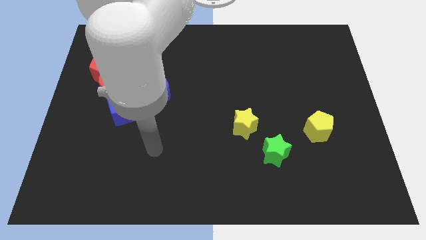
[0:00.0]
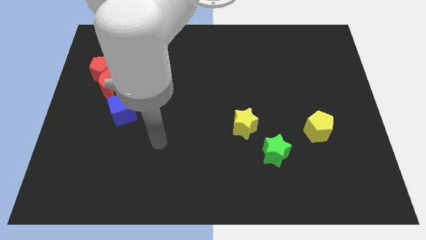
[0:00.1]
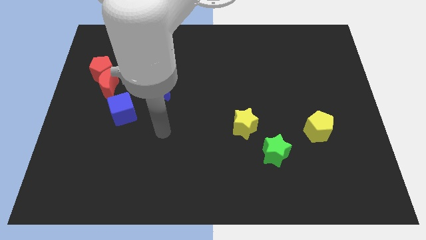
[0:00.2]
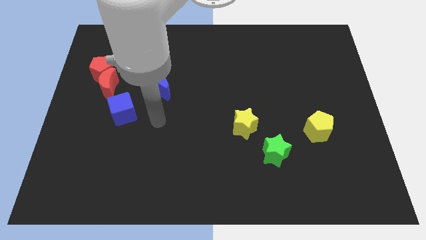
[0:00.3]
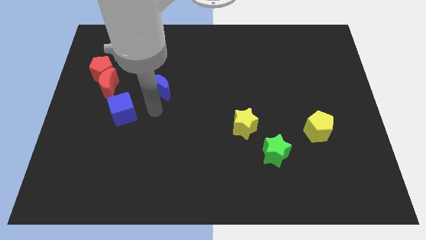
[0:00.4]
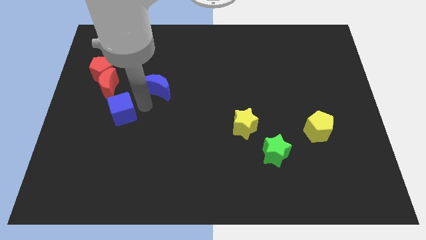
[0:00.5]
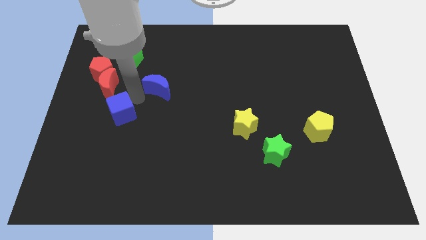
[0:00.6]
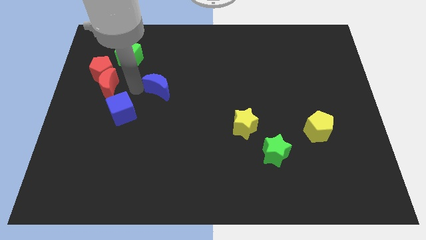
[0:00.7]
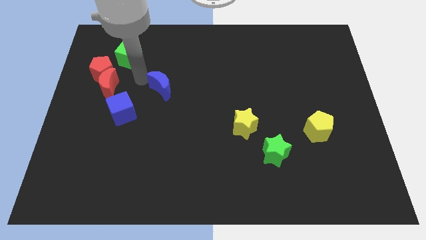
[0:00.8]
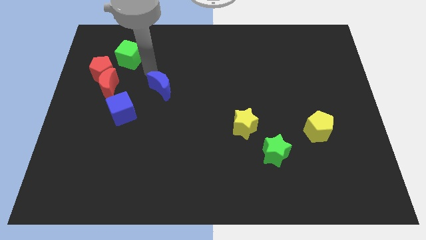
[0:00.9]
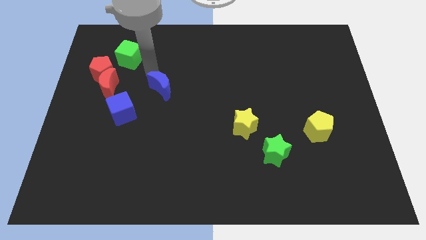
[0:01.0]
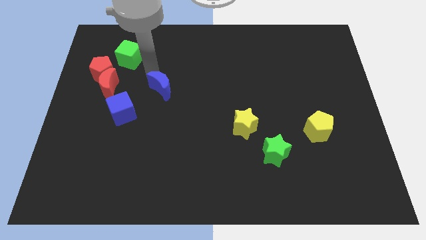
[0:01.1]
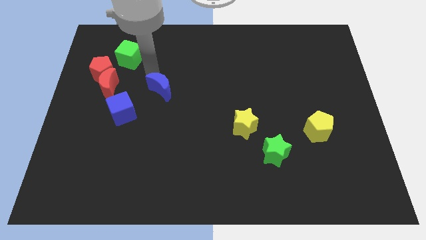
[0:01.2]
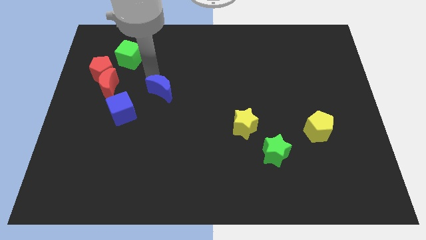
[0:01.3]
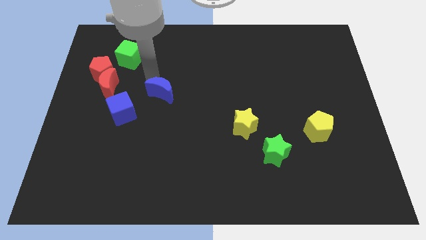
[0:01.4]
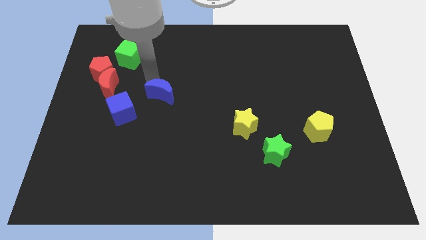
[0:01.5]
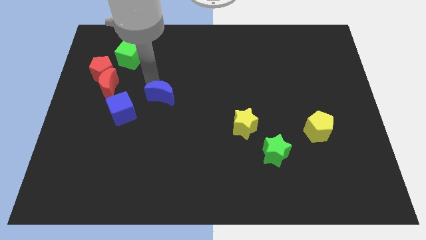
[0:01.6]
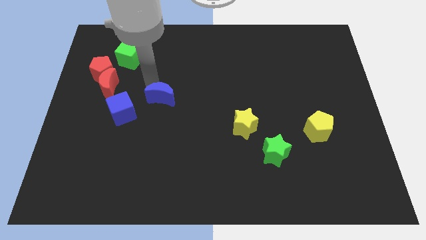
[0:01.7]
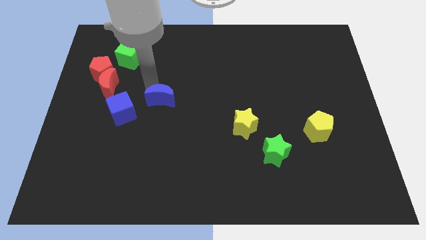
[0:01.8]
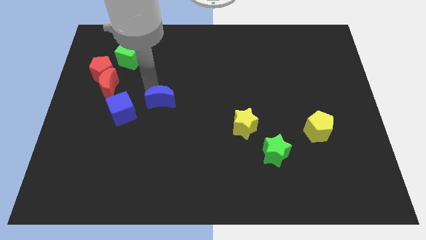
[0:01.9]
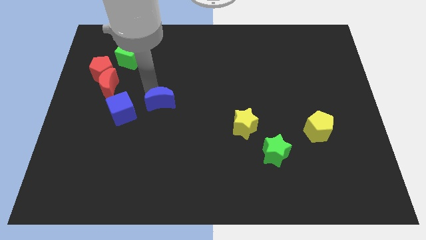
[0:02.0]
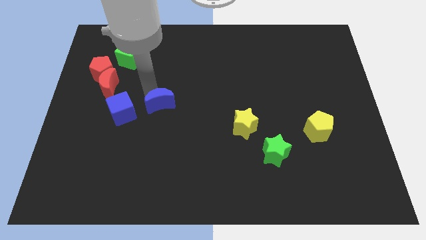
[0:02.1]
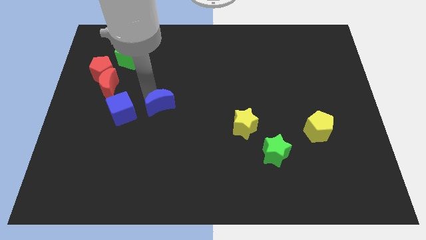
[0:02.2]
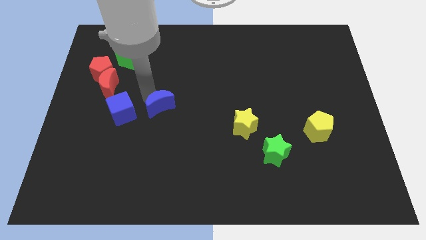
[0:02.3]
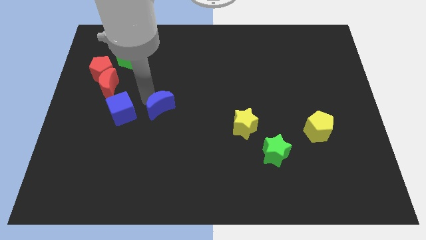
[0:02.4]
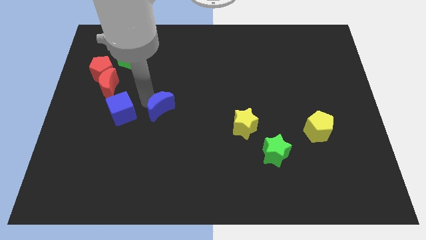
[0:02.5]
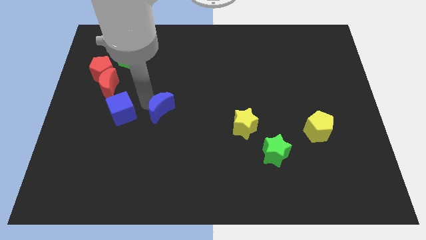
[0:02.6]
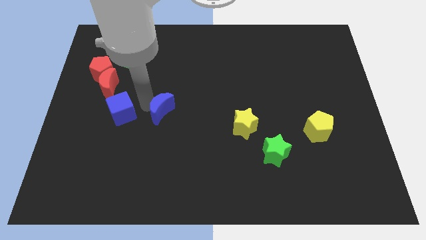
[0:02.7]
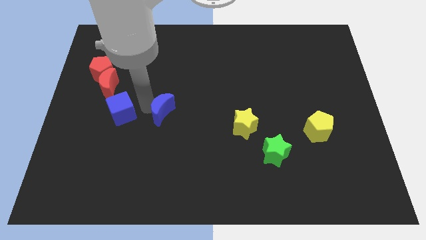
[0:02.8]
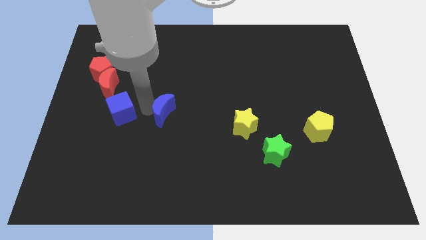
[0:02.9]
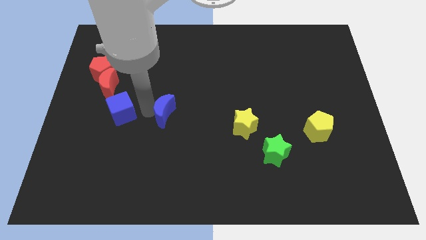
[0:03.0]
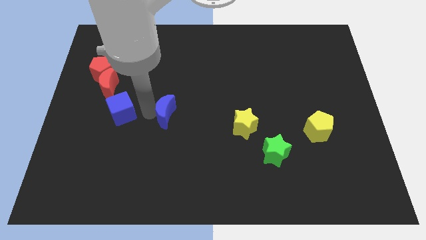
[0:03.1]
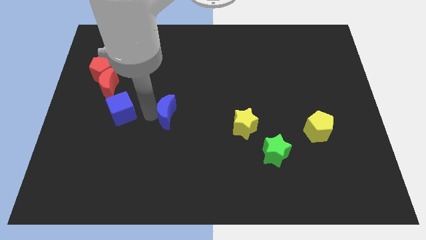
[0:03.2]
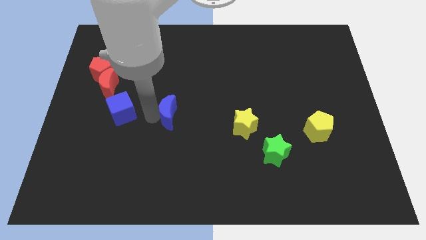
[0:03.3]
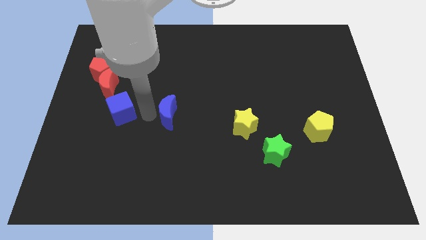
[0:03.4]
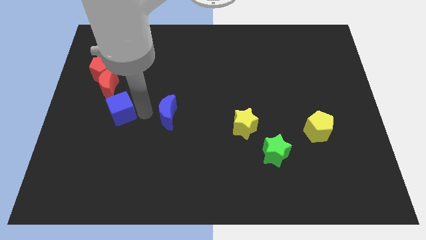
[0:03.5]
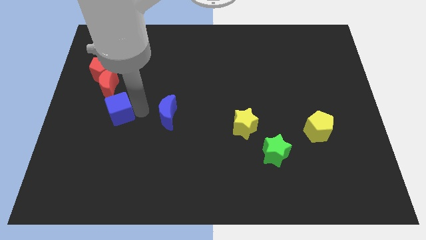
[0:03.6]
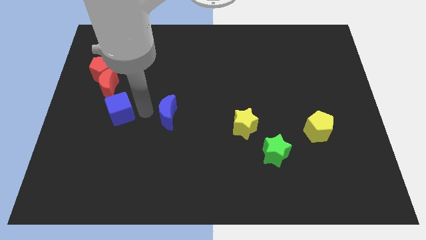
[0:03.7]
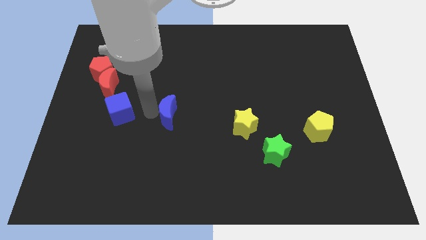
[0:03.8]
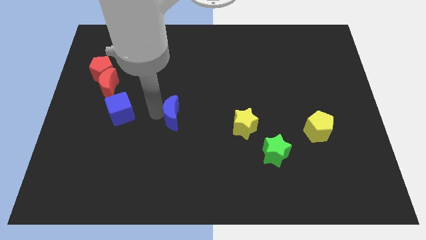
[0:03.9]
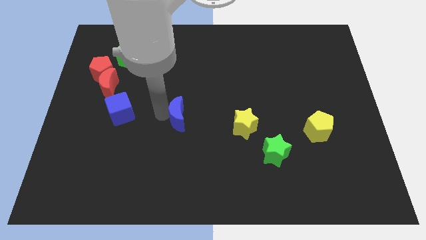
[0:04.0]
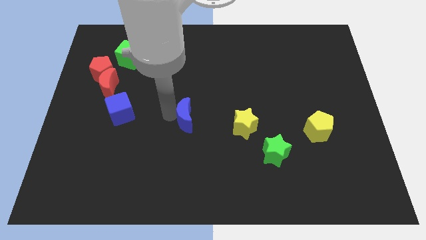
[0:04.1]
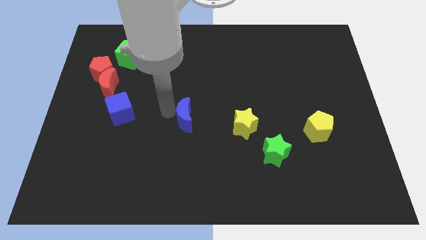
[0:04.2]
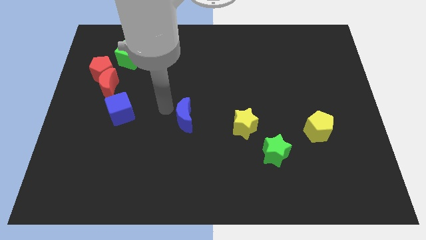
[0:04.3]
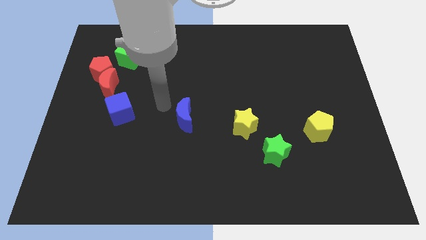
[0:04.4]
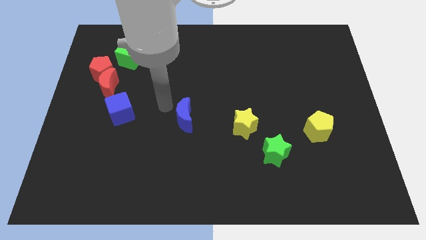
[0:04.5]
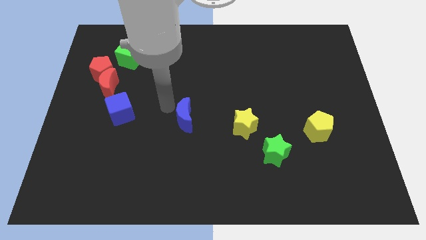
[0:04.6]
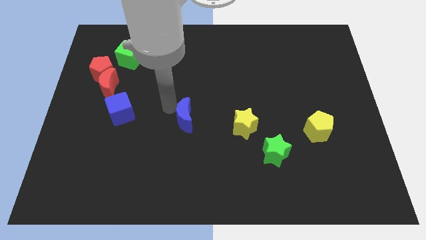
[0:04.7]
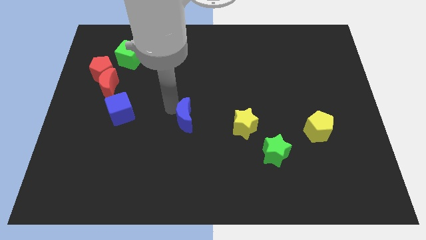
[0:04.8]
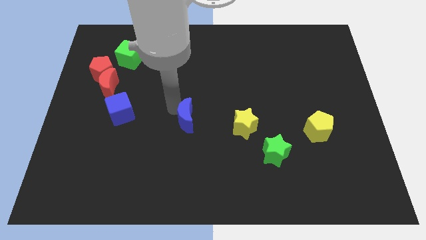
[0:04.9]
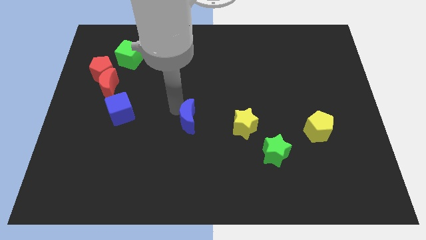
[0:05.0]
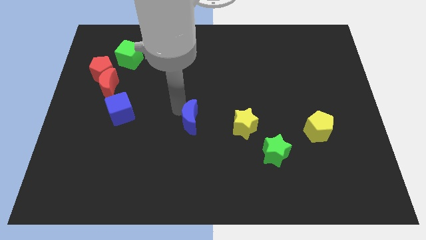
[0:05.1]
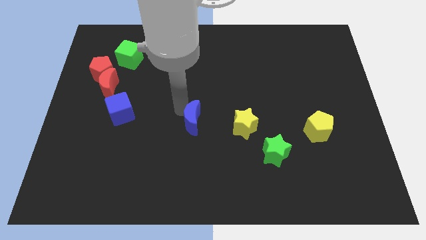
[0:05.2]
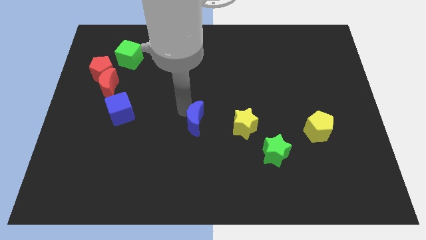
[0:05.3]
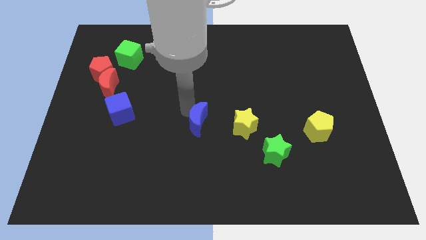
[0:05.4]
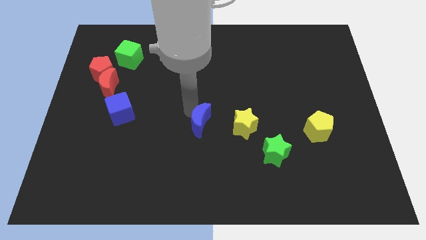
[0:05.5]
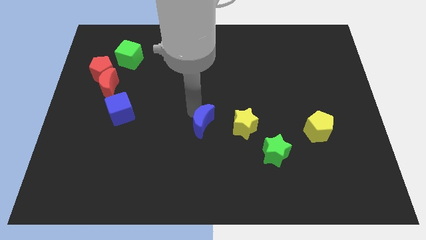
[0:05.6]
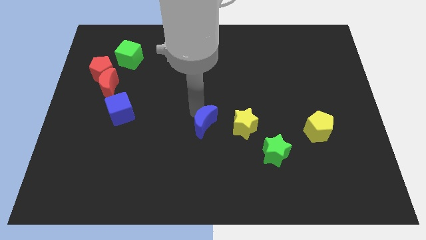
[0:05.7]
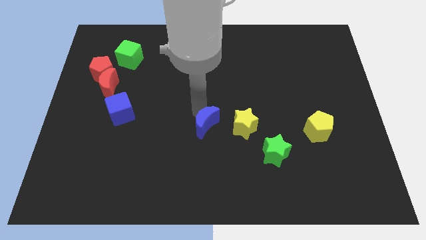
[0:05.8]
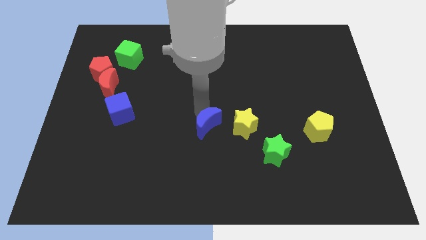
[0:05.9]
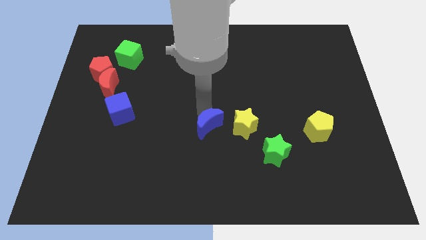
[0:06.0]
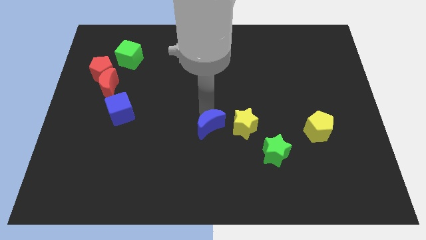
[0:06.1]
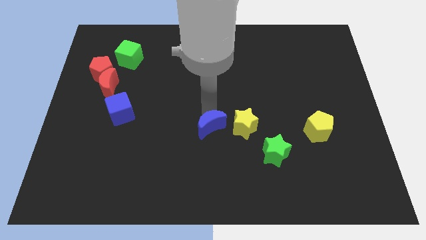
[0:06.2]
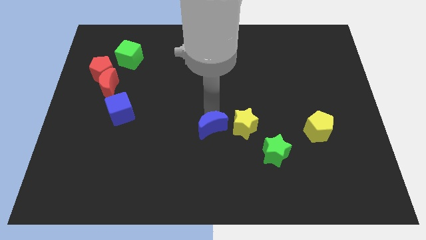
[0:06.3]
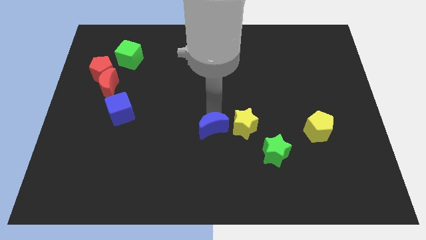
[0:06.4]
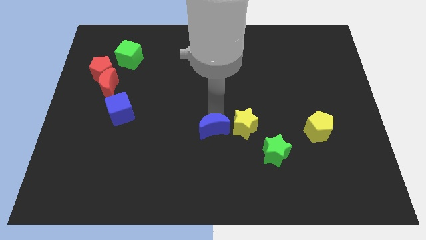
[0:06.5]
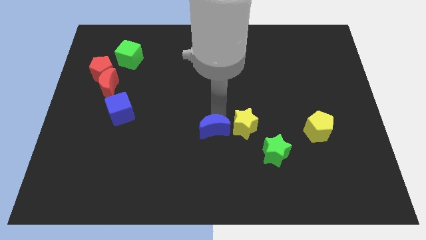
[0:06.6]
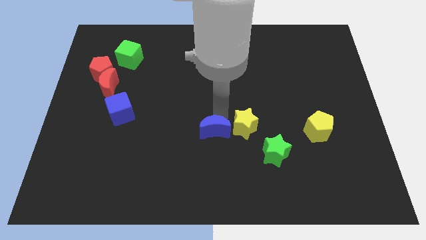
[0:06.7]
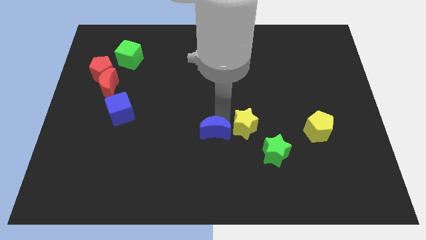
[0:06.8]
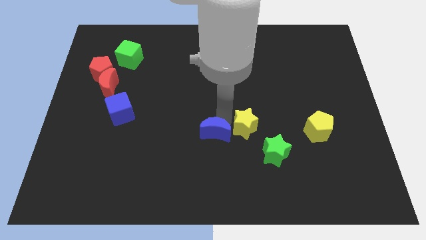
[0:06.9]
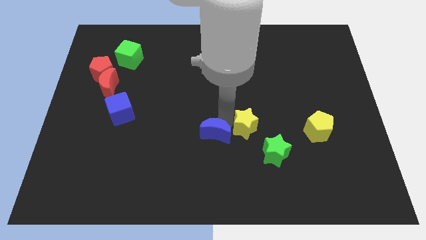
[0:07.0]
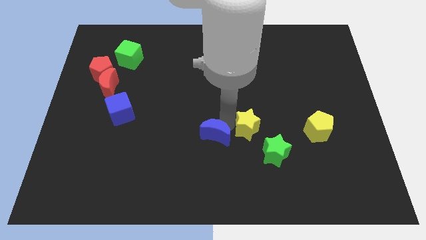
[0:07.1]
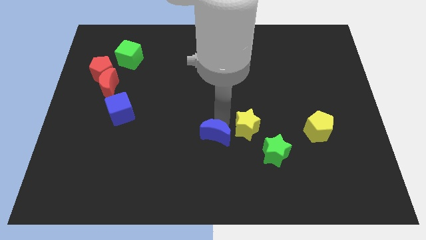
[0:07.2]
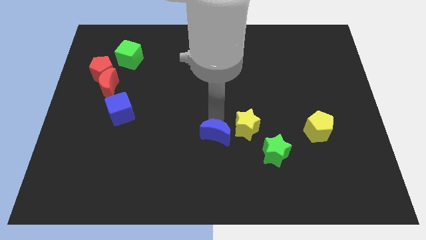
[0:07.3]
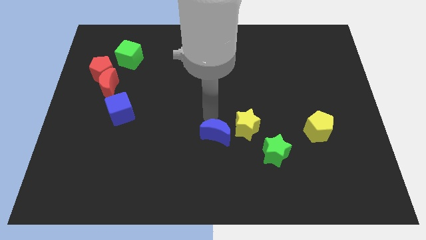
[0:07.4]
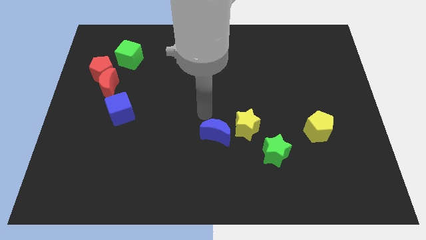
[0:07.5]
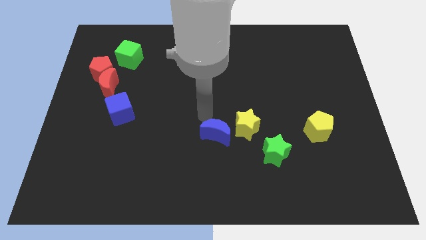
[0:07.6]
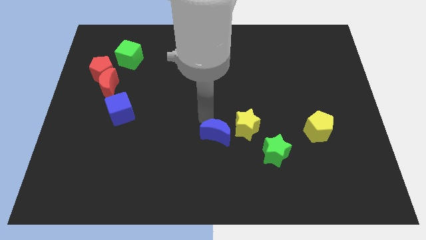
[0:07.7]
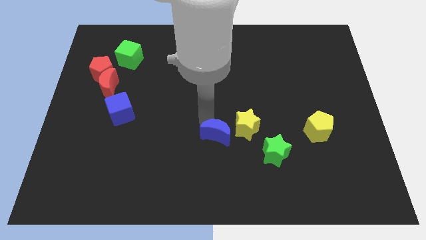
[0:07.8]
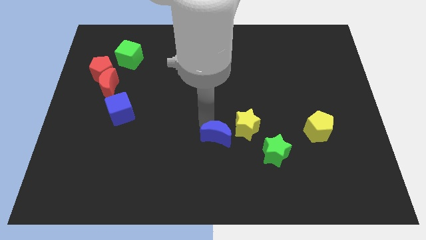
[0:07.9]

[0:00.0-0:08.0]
push the blue moon diagonally downwards and to the right

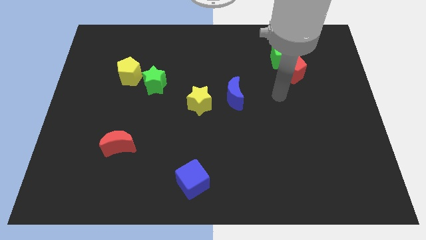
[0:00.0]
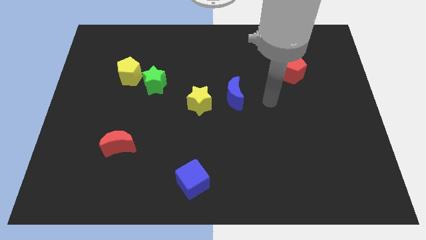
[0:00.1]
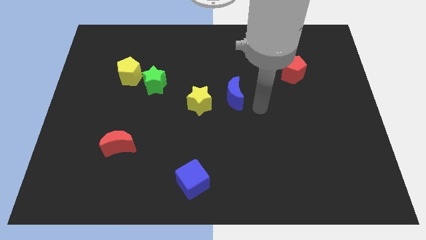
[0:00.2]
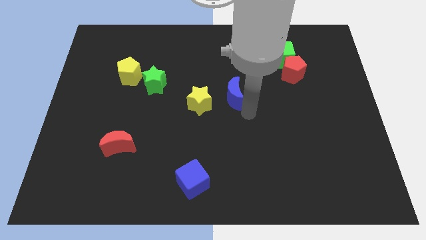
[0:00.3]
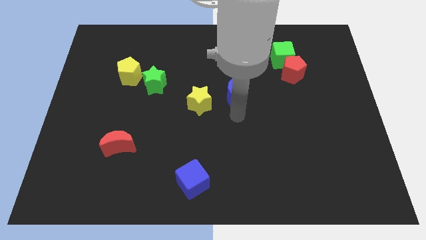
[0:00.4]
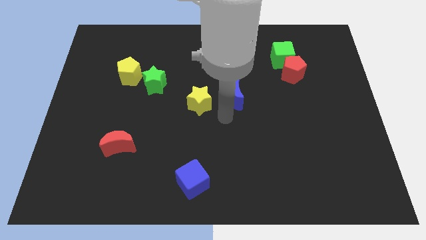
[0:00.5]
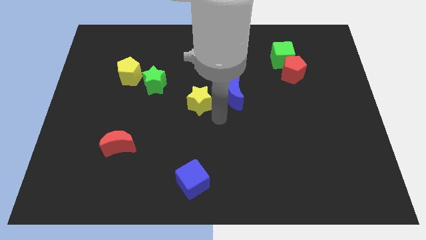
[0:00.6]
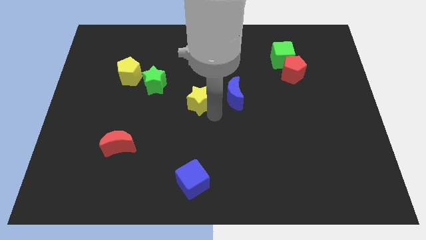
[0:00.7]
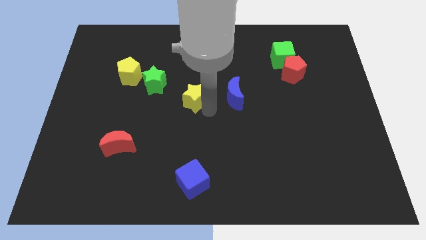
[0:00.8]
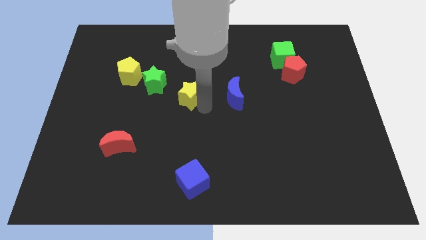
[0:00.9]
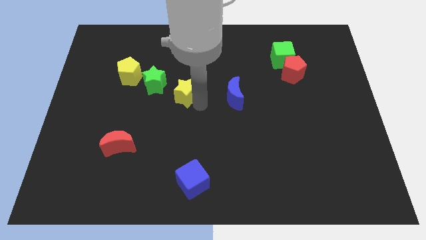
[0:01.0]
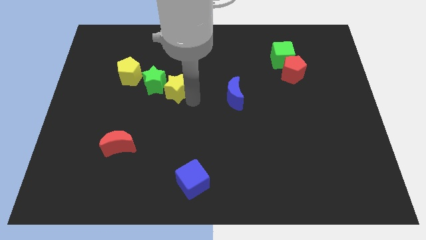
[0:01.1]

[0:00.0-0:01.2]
slightly slide the yellow star up and to the left
